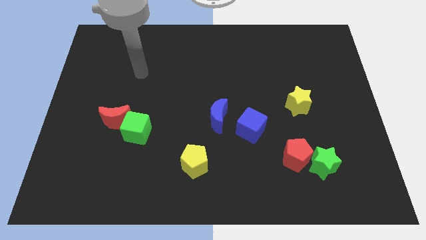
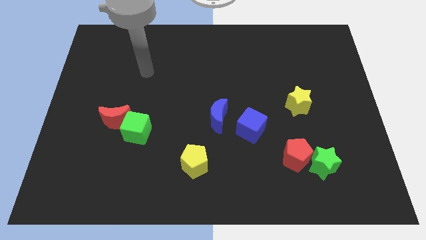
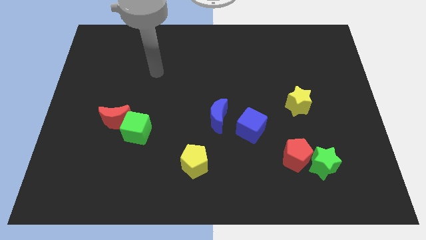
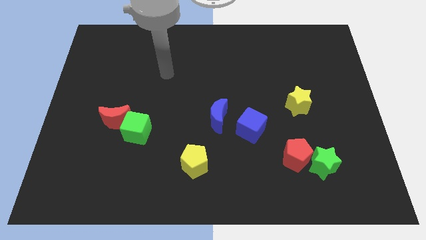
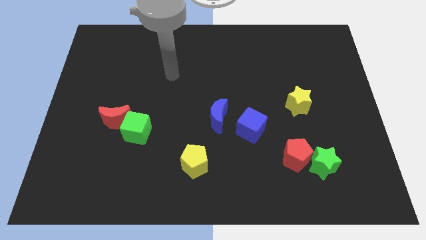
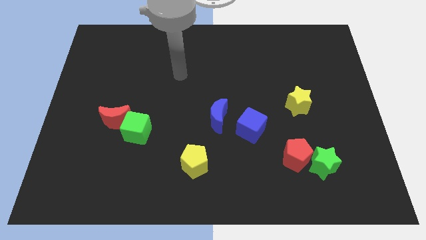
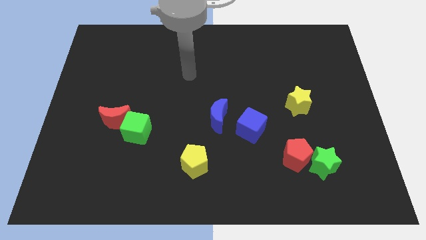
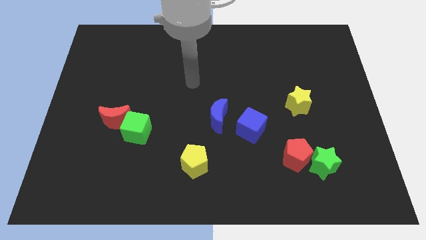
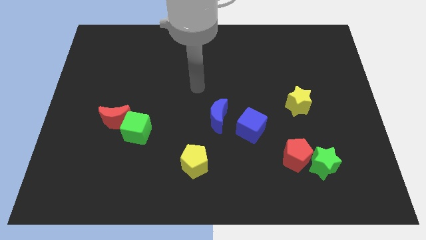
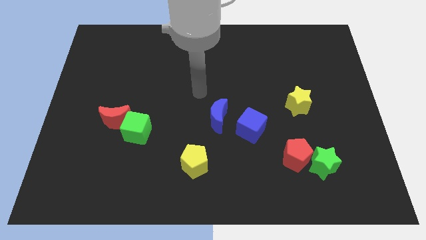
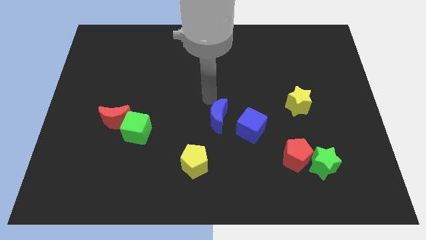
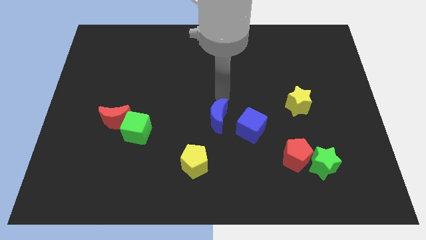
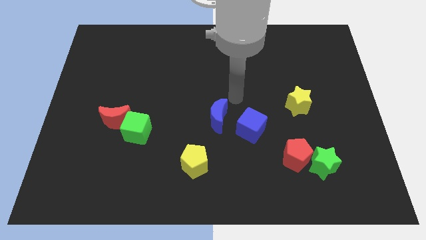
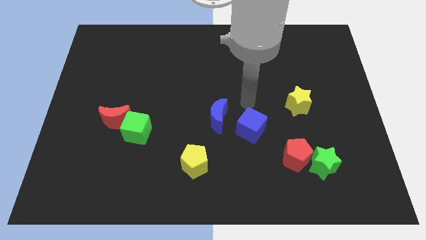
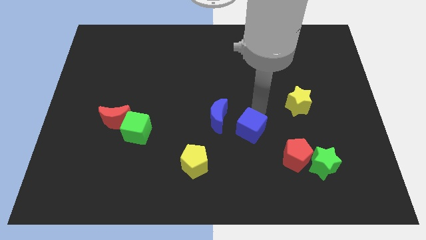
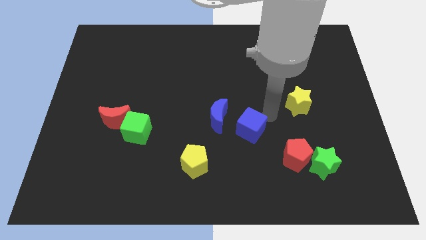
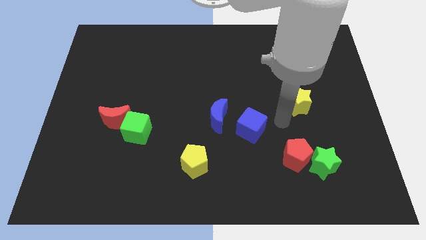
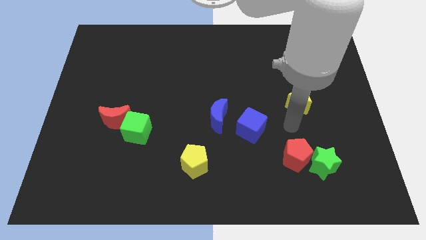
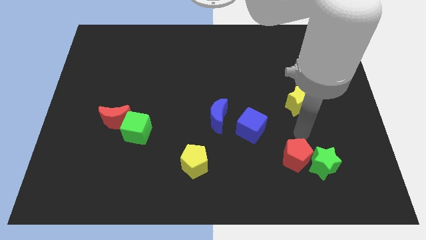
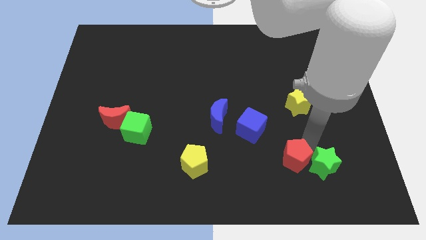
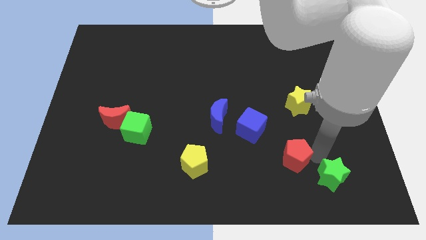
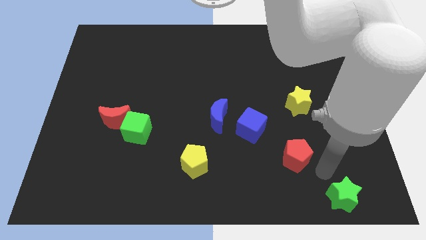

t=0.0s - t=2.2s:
pull the red pentagon apart from the green star

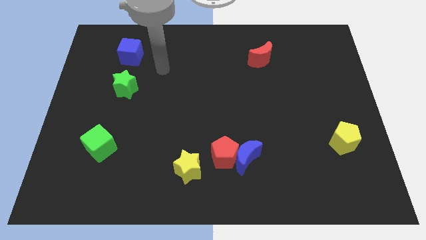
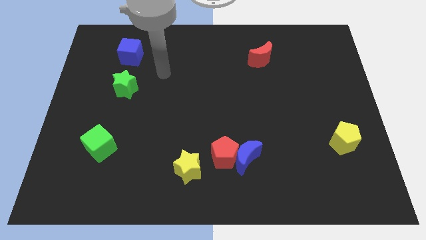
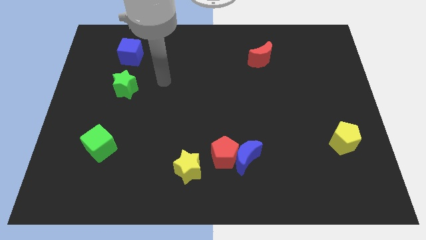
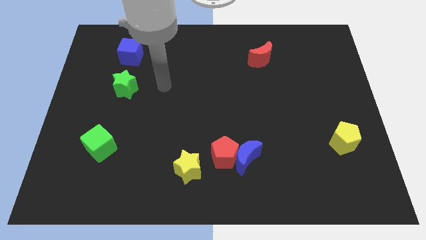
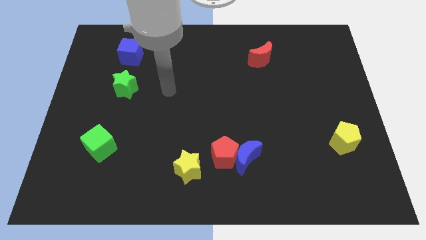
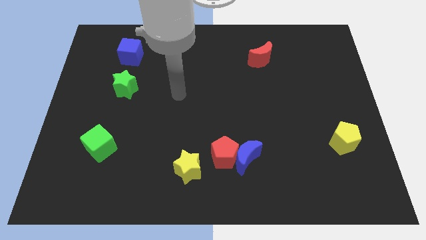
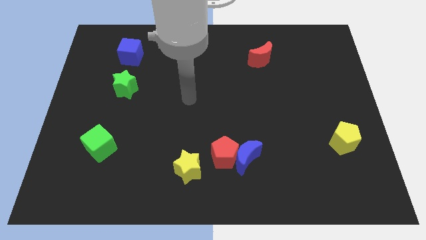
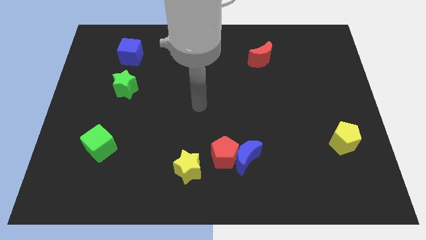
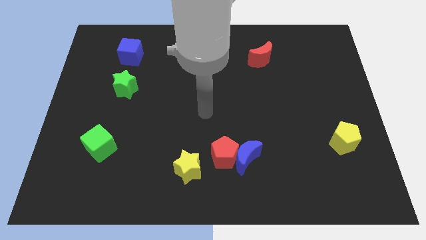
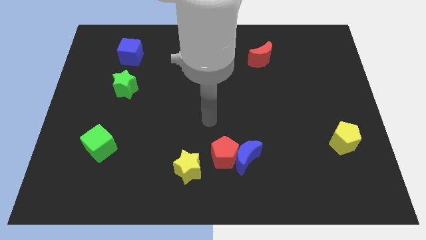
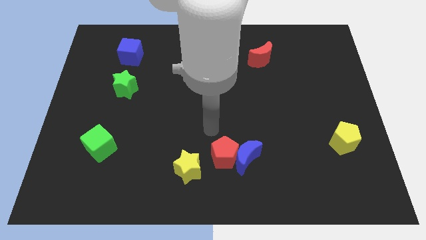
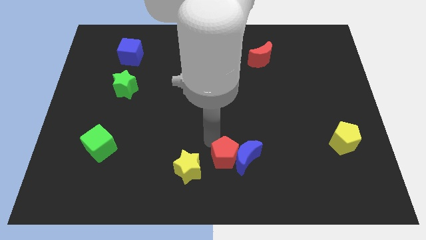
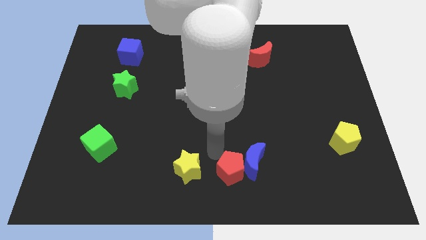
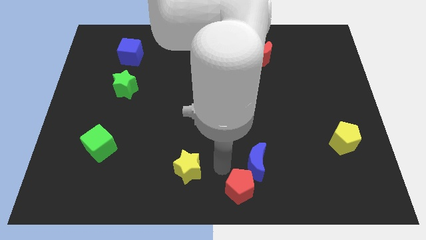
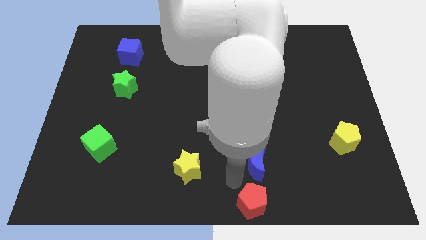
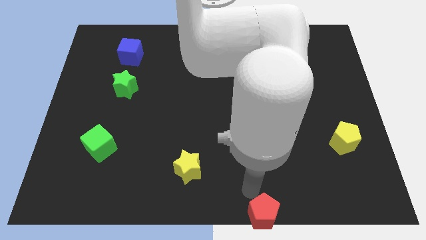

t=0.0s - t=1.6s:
move the blue moon away from the red pentagon

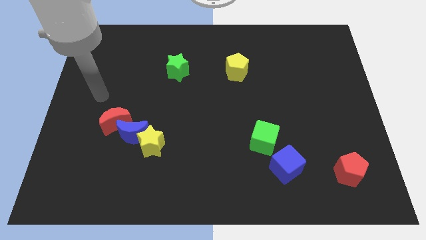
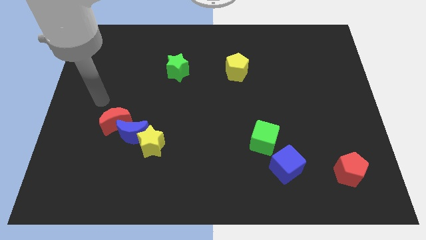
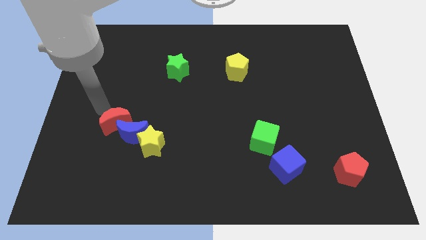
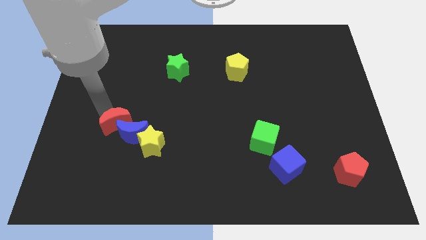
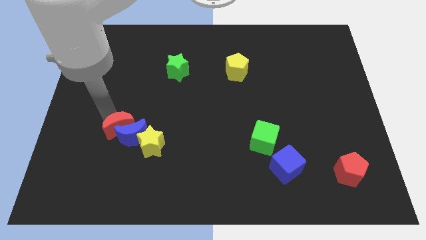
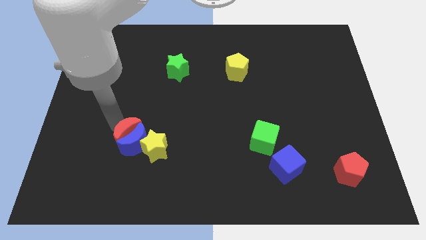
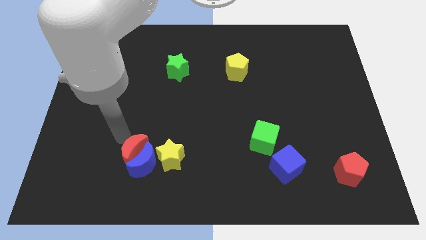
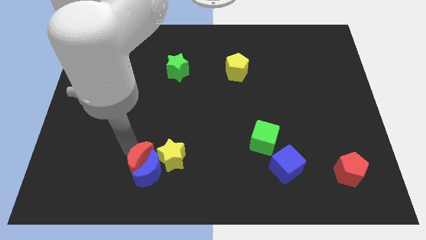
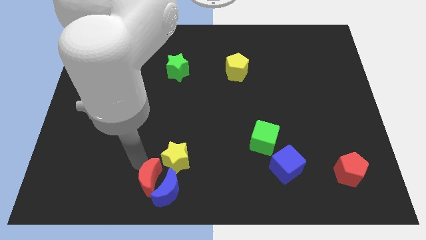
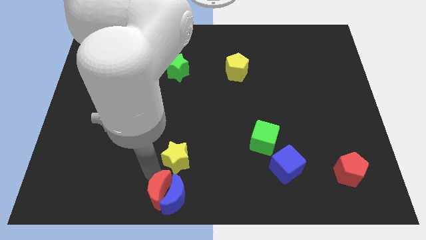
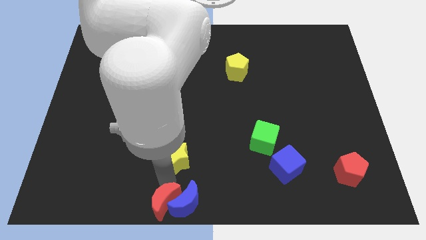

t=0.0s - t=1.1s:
pull the yellow star apart from the blue moon

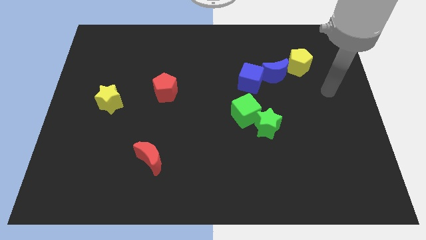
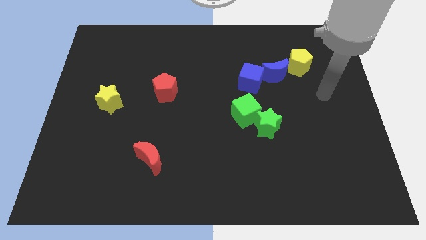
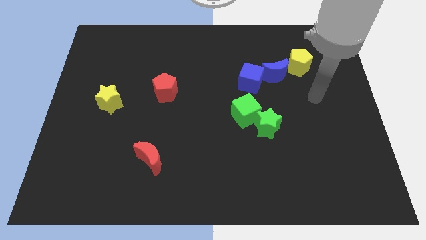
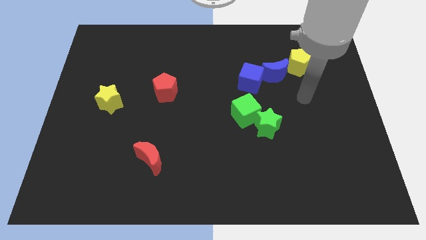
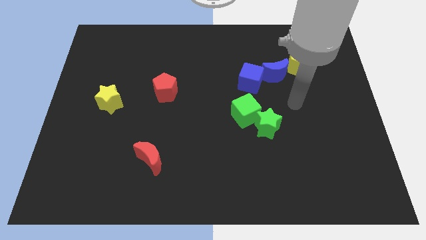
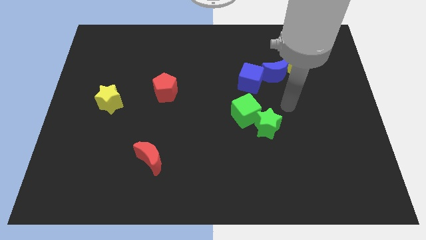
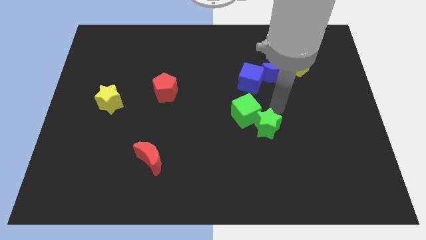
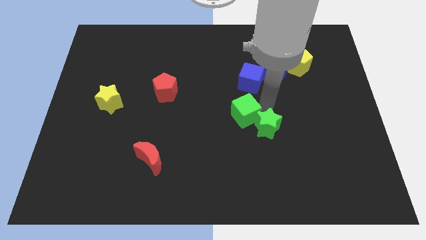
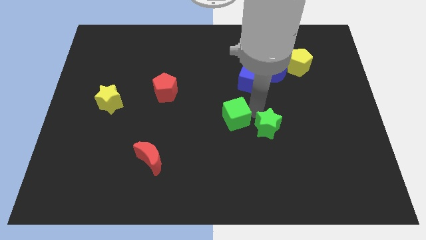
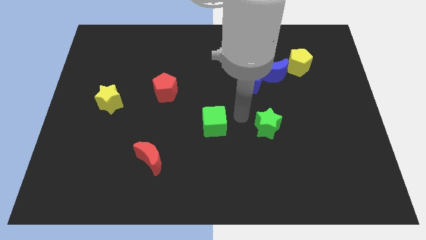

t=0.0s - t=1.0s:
separate the green star from the green cube

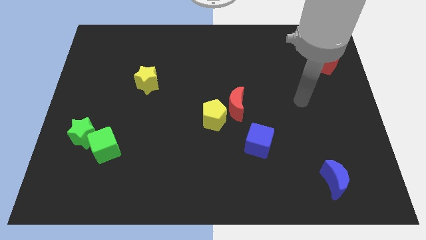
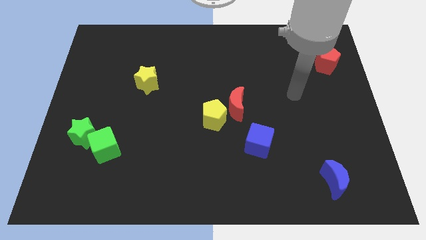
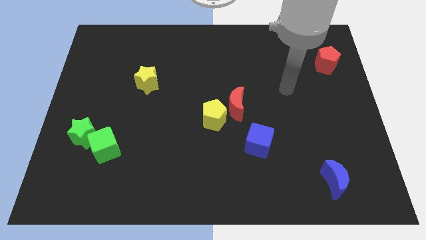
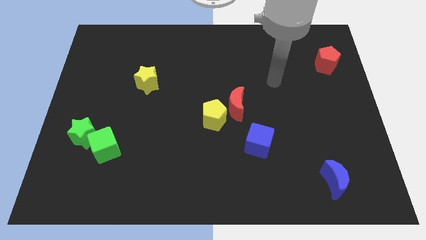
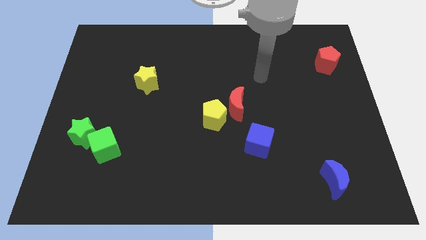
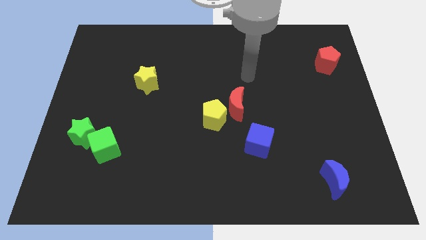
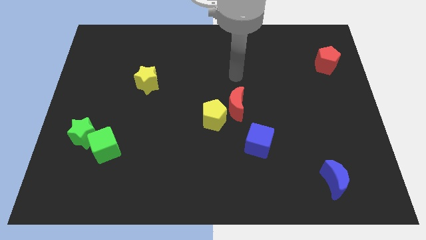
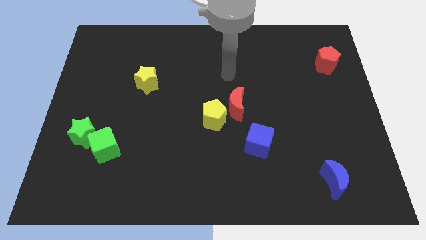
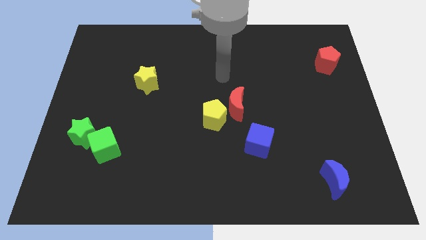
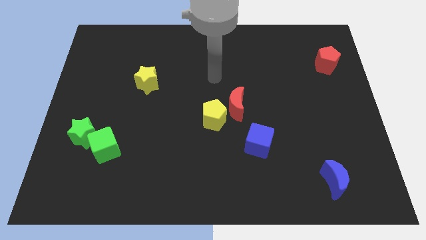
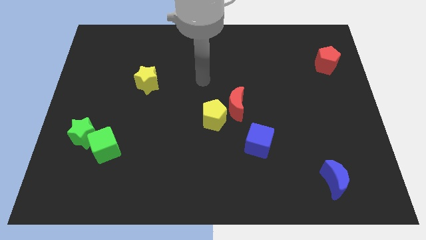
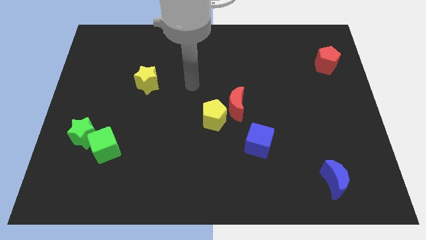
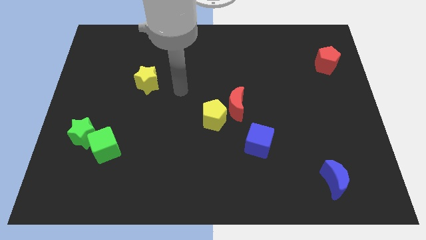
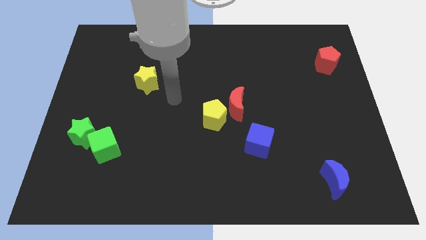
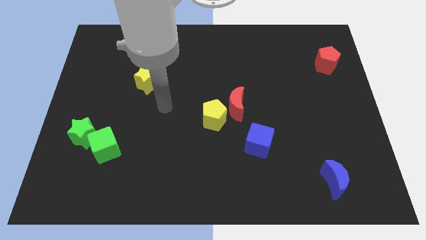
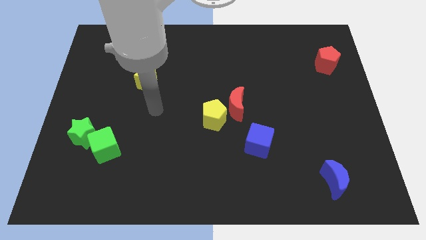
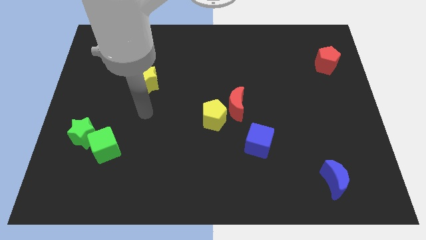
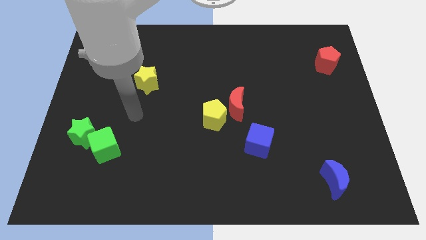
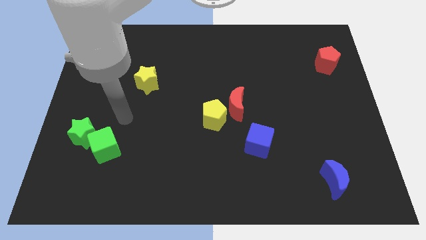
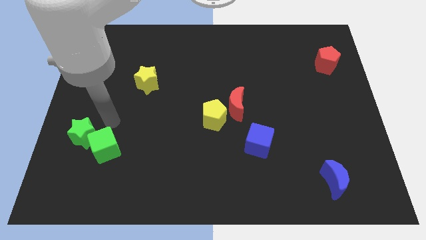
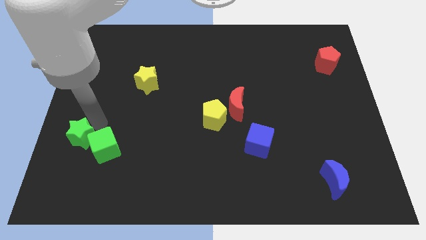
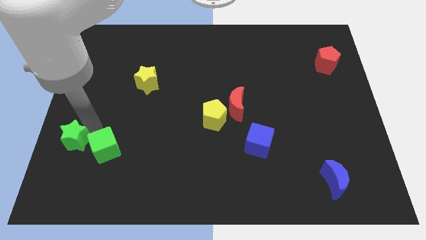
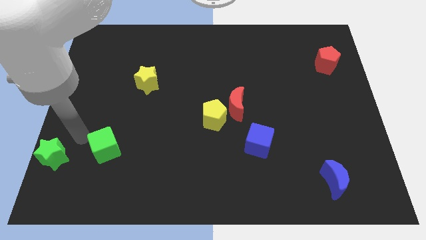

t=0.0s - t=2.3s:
move the green cube away from the green star

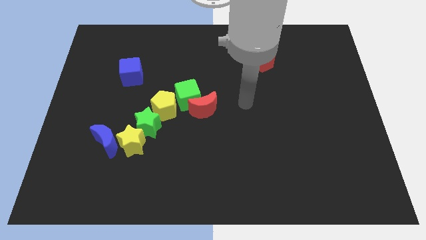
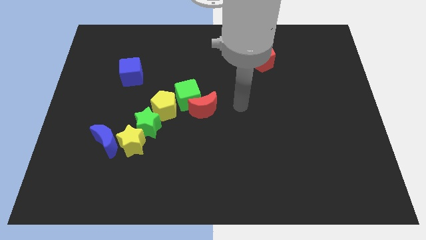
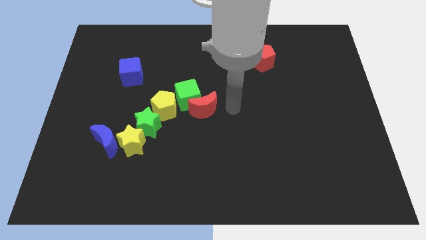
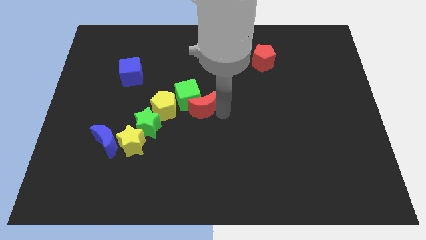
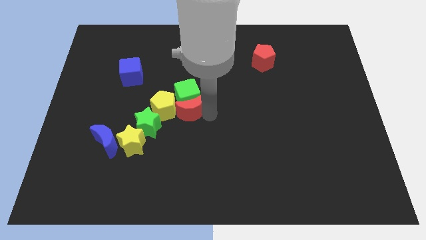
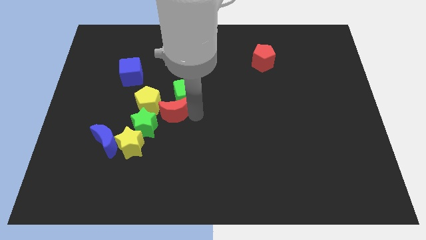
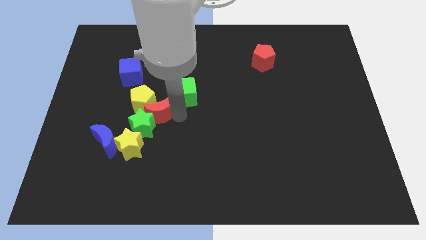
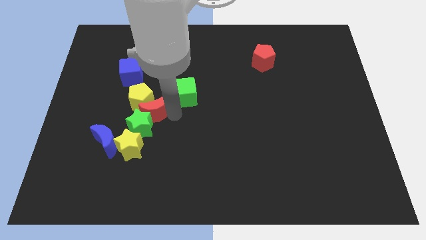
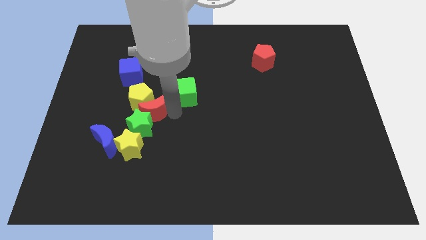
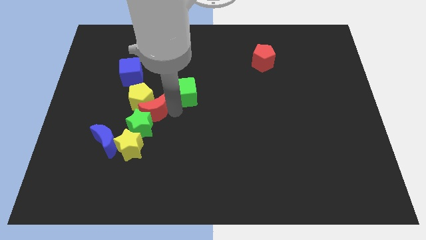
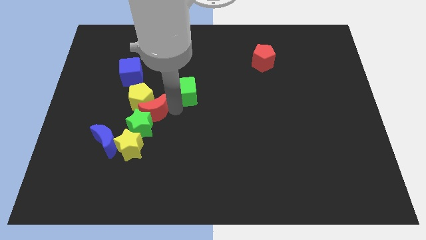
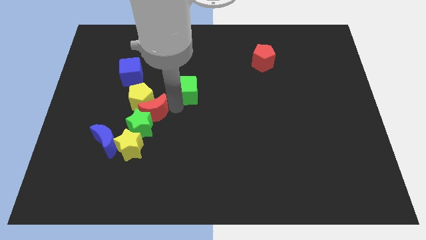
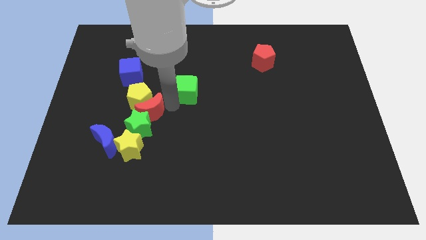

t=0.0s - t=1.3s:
pull the green cube apart from the red moon and yellow pentagon
